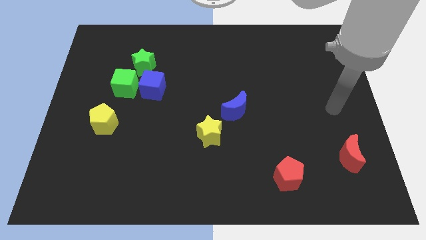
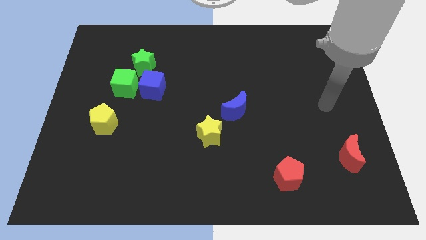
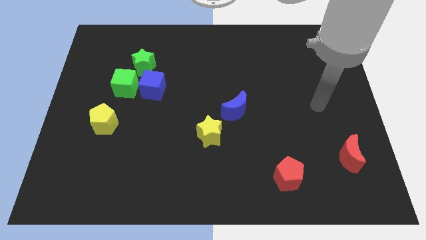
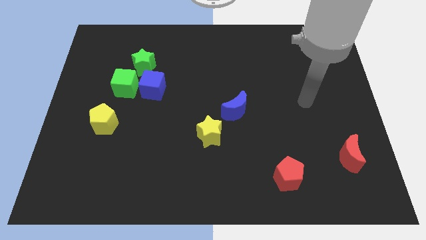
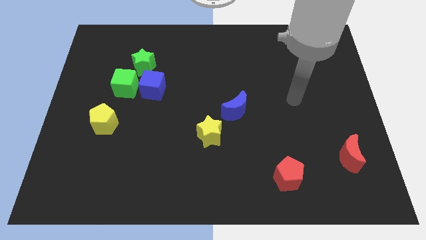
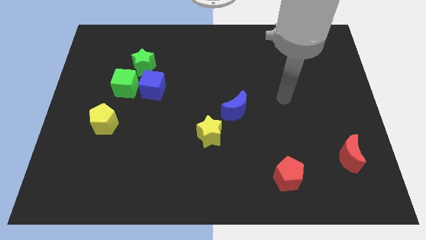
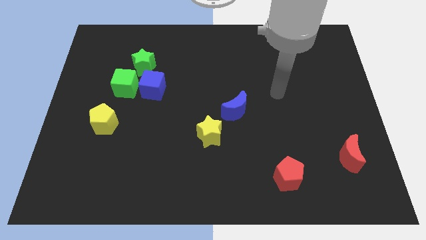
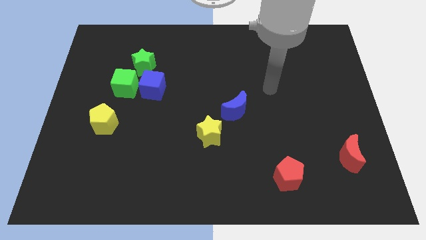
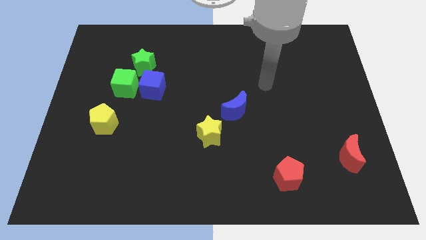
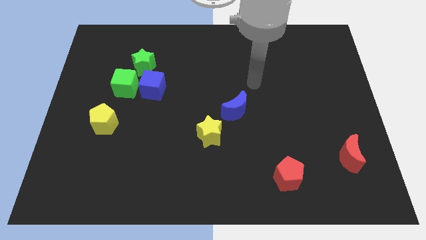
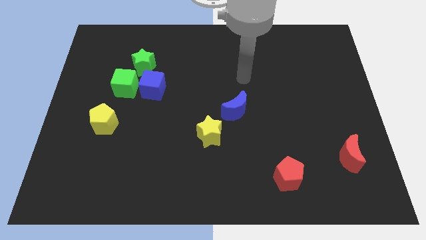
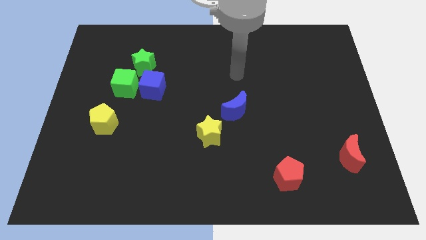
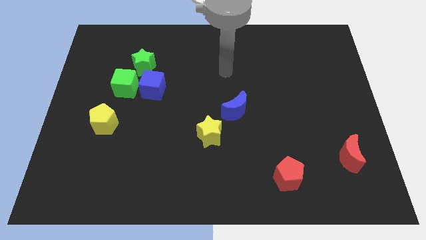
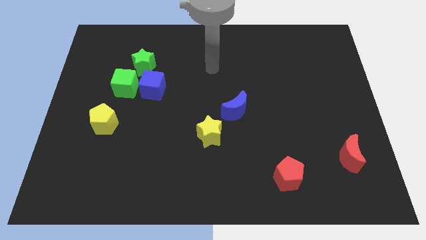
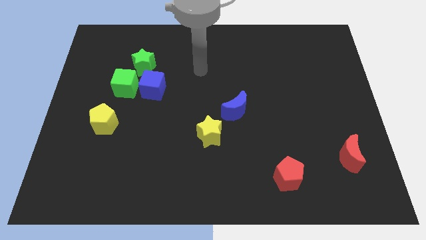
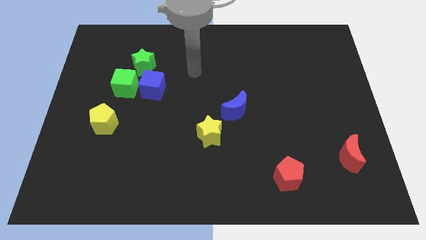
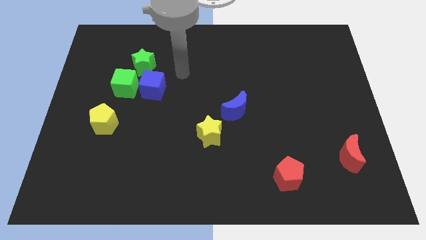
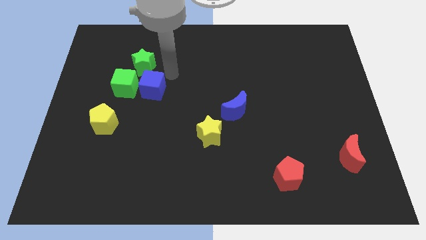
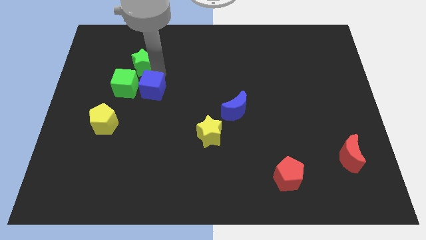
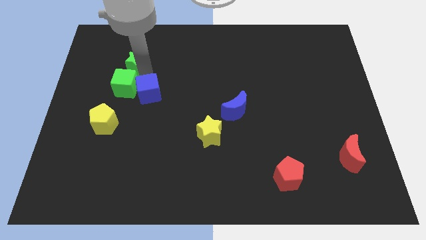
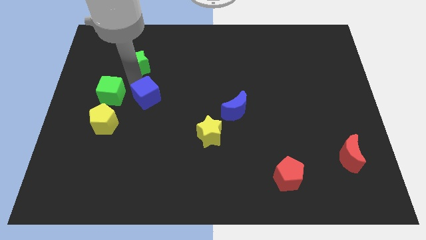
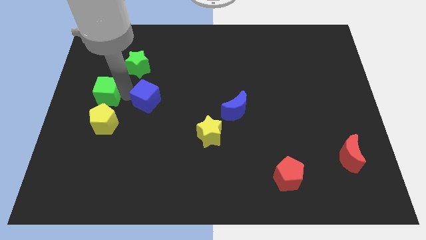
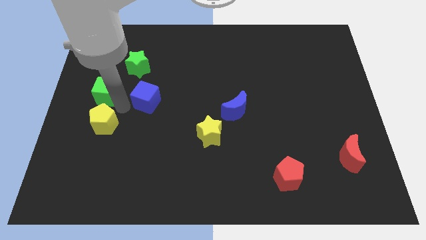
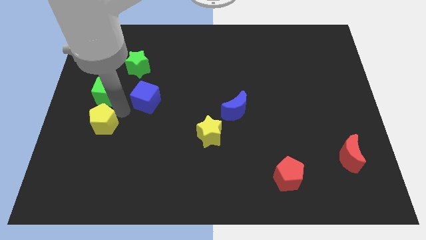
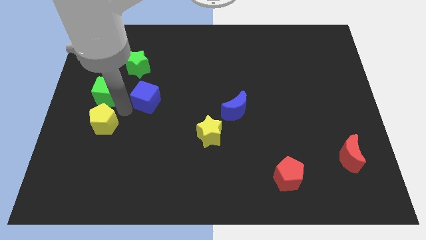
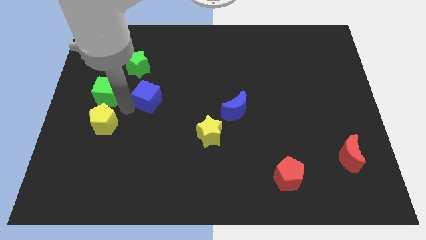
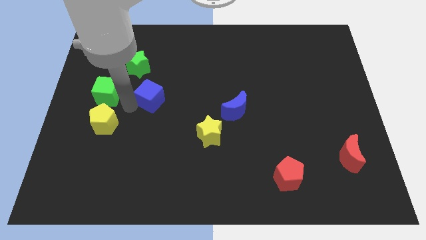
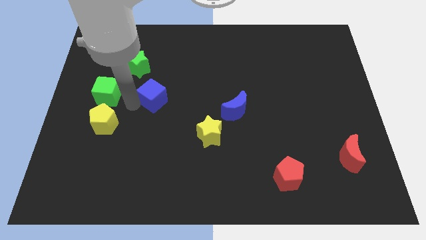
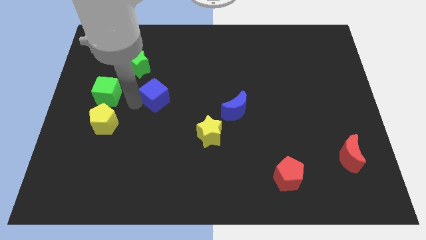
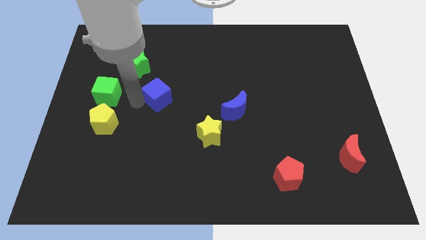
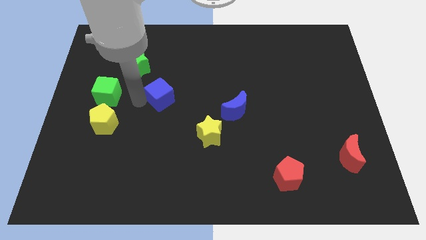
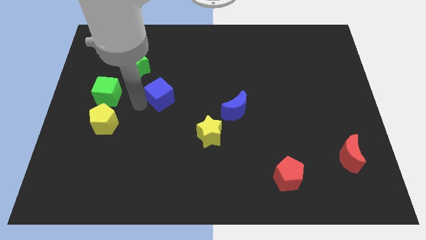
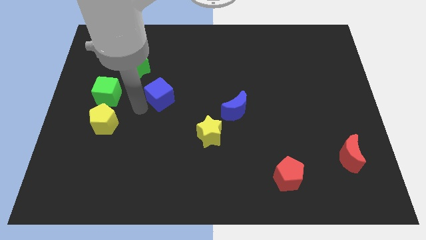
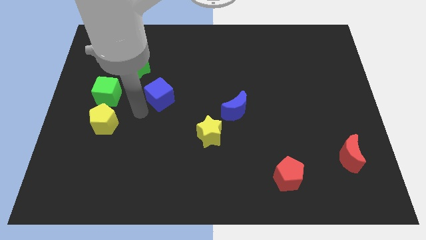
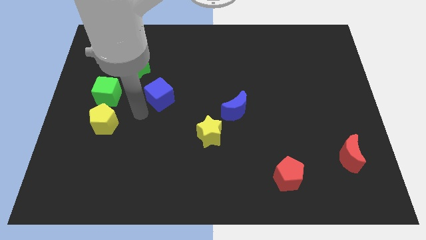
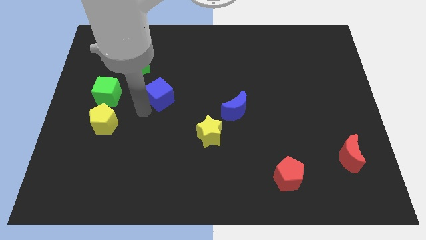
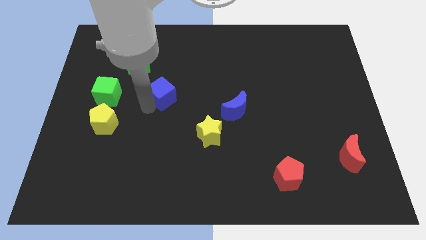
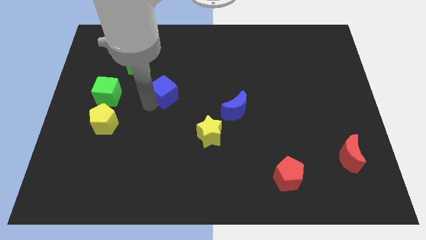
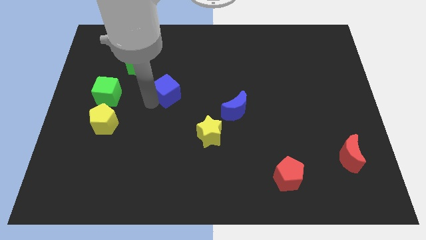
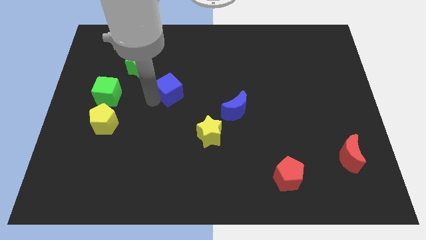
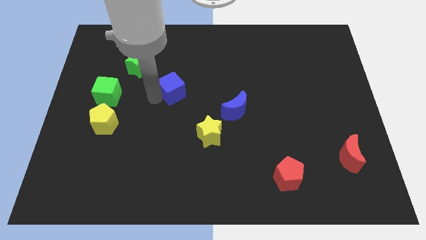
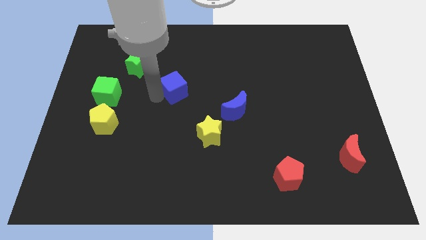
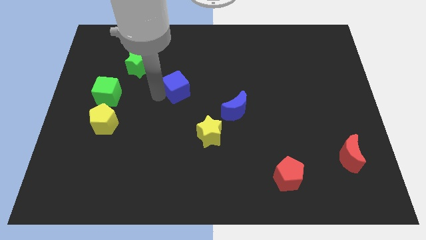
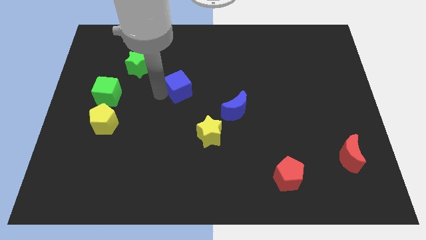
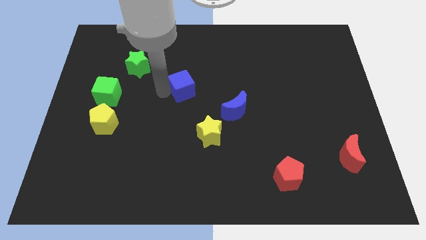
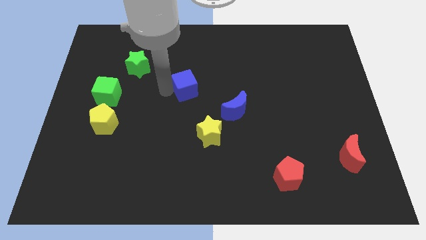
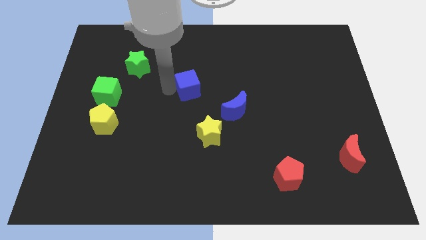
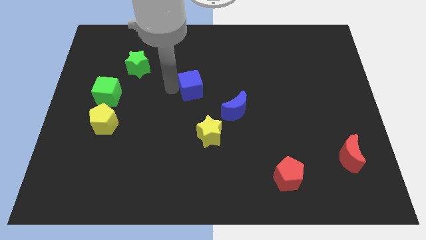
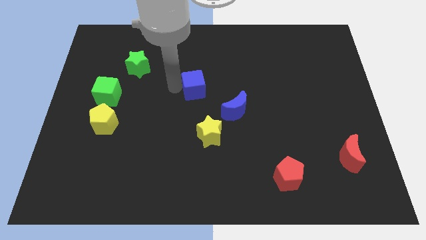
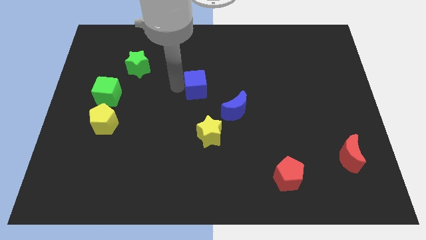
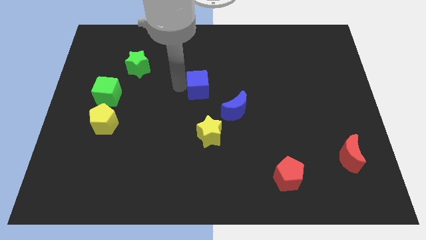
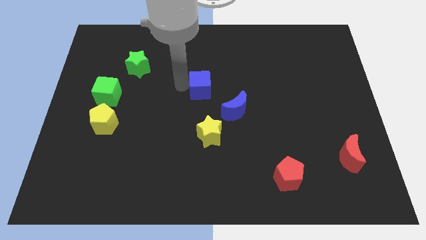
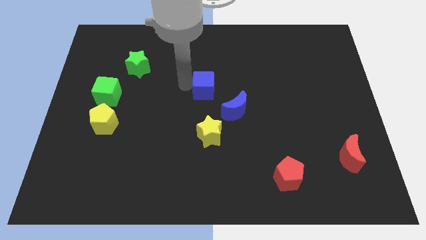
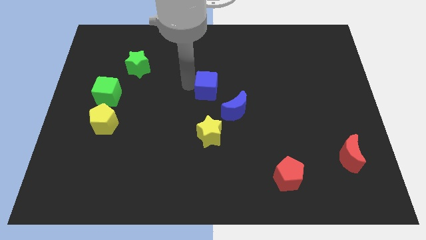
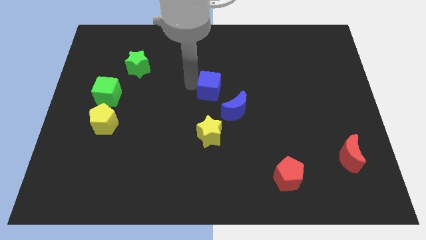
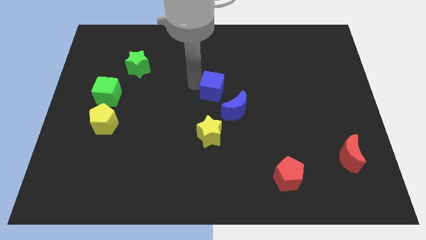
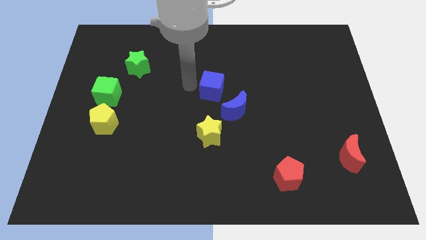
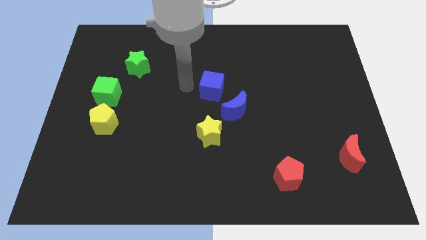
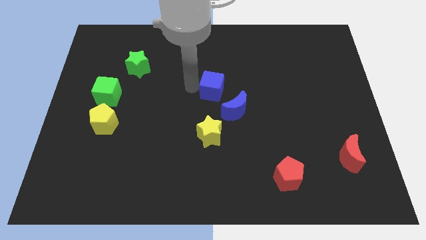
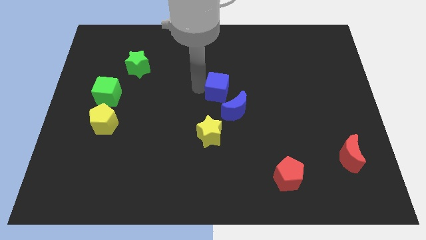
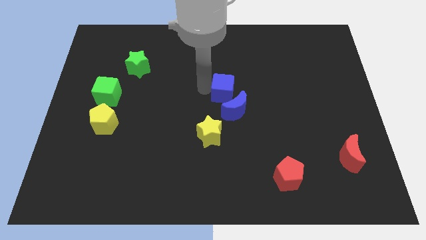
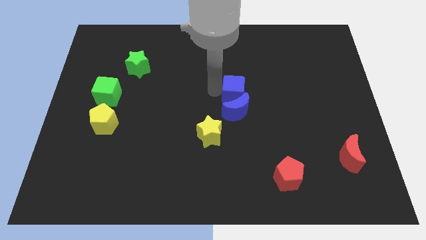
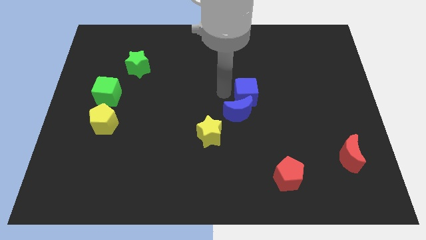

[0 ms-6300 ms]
move the blue cube to the right

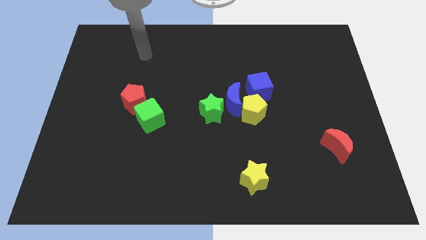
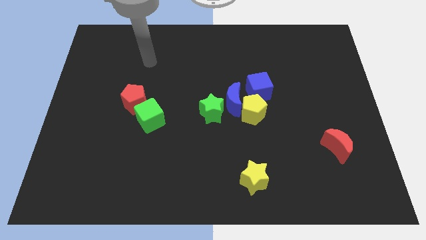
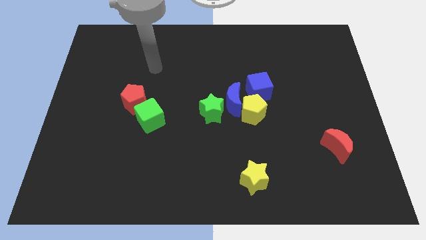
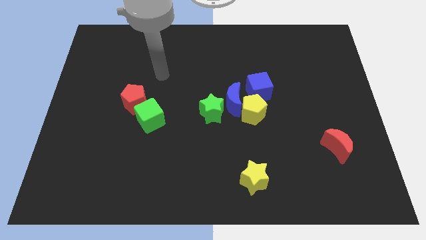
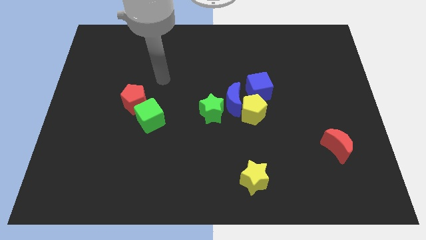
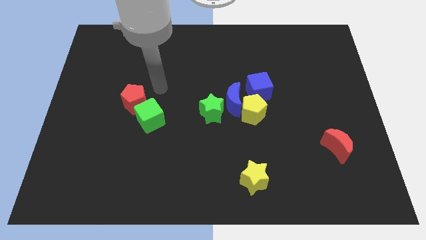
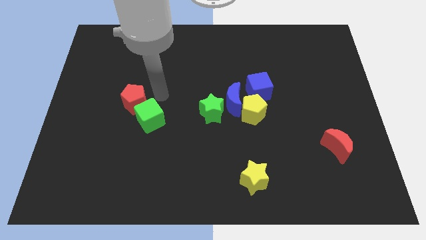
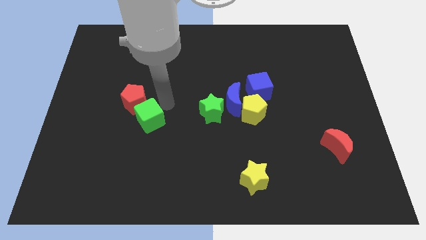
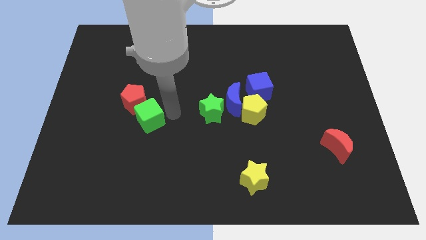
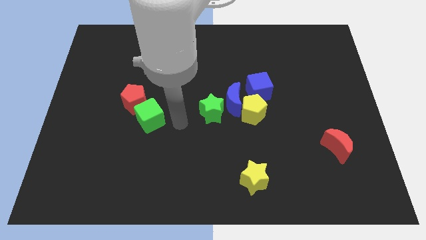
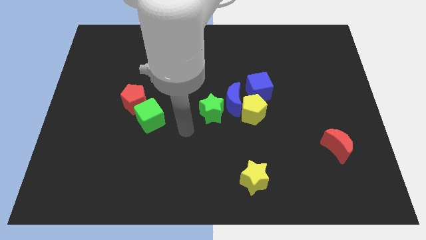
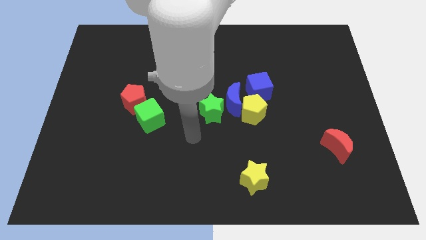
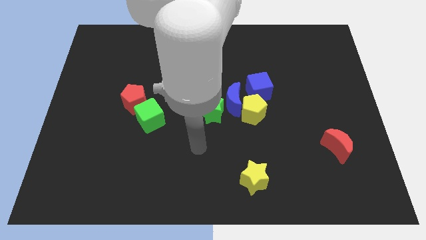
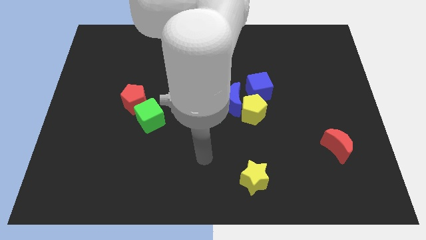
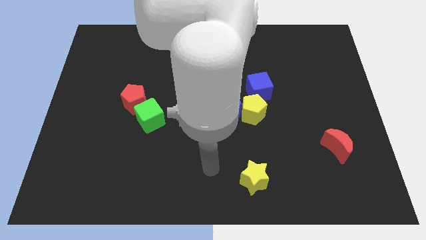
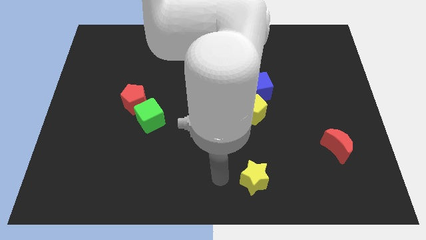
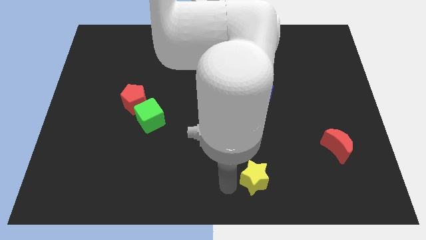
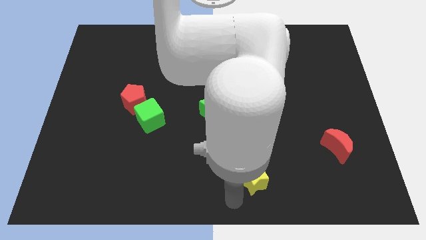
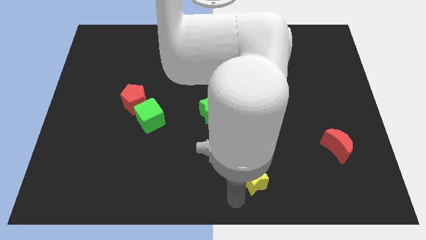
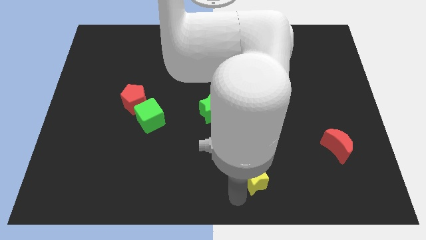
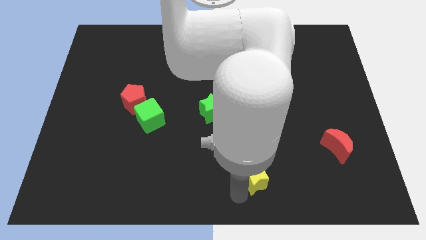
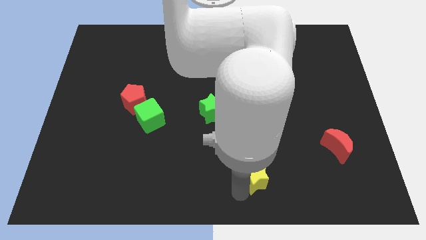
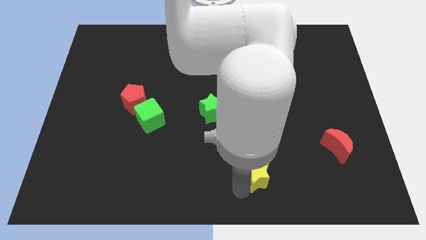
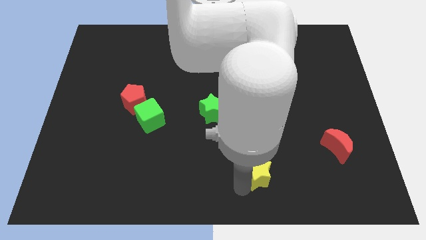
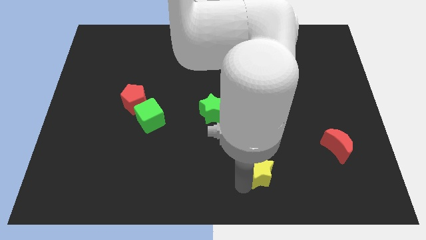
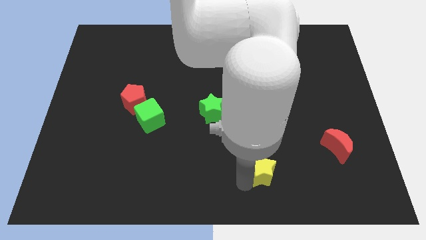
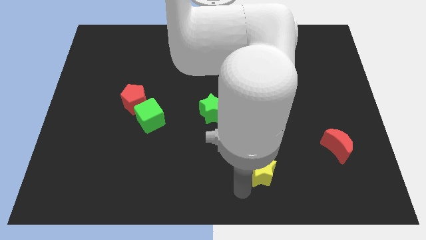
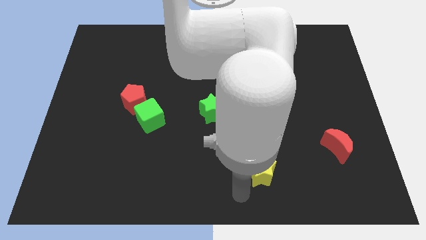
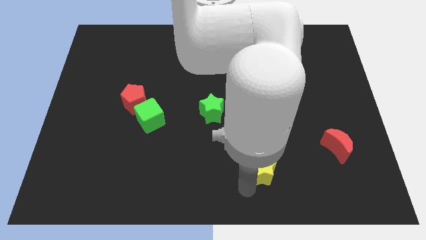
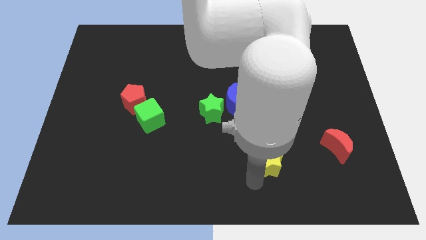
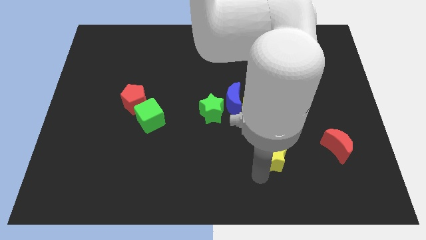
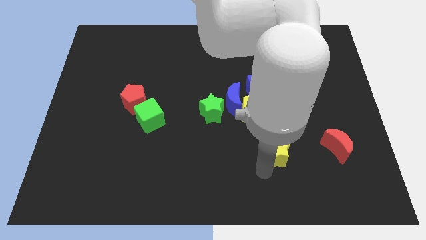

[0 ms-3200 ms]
slide the yellow star up and then to the right a little bit
